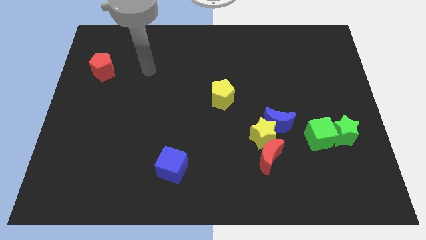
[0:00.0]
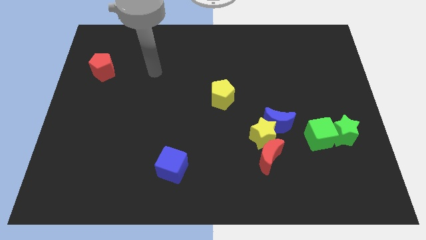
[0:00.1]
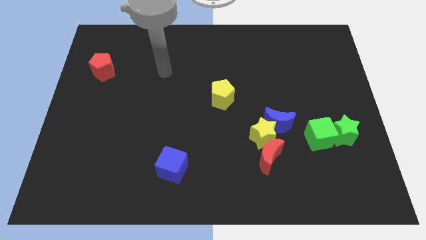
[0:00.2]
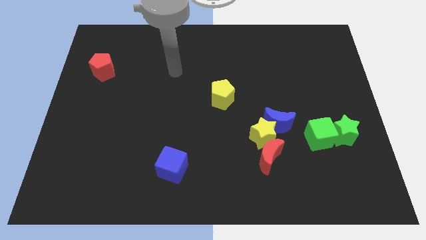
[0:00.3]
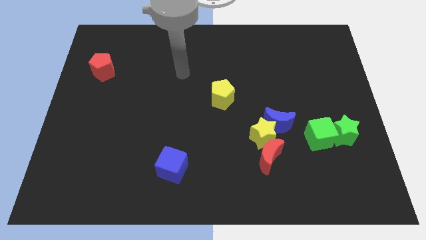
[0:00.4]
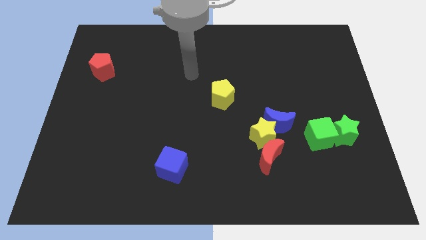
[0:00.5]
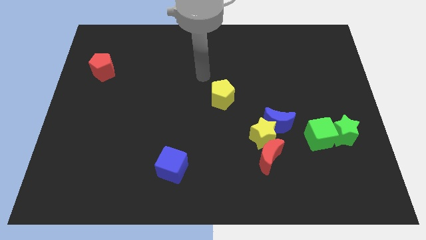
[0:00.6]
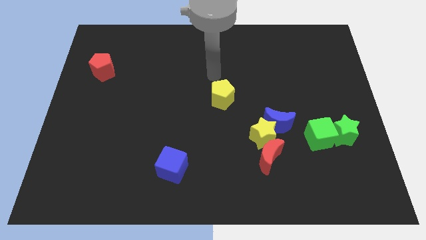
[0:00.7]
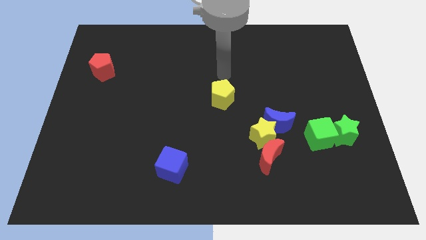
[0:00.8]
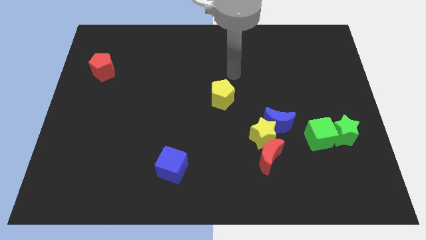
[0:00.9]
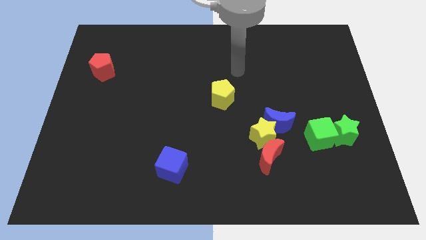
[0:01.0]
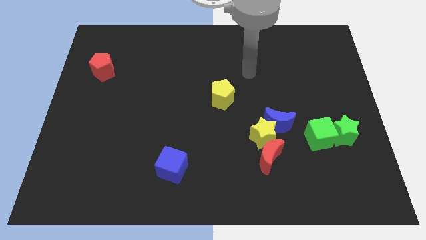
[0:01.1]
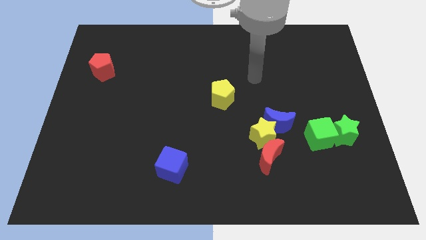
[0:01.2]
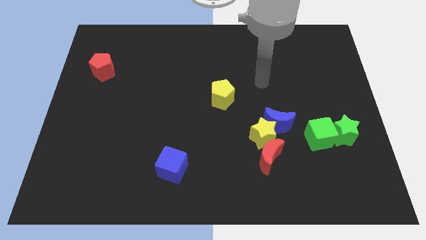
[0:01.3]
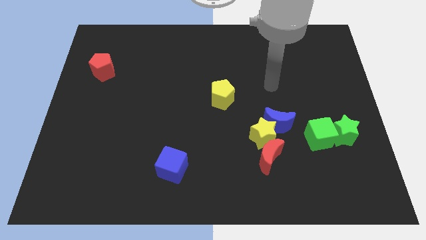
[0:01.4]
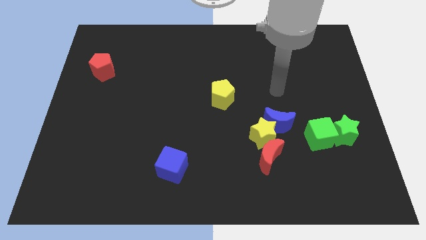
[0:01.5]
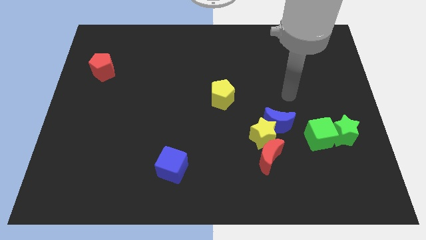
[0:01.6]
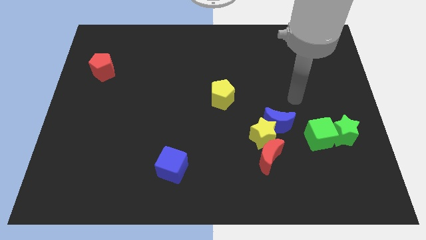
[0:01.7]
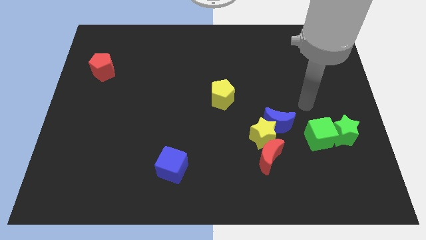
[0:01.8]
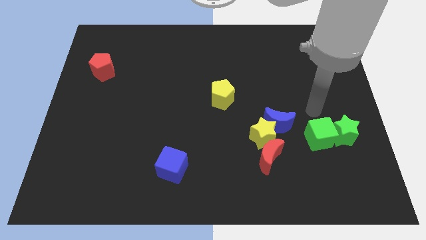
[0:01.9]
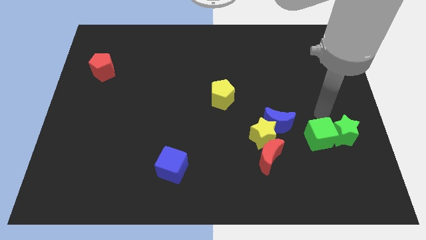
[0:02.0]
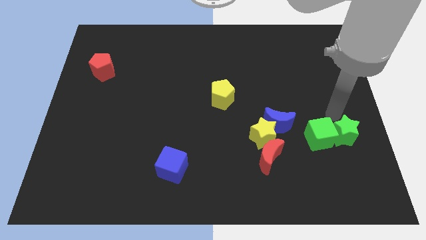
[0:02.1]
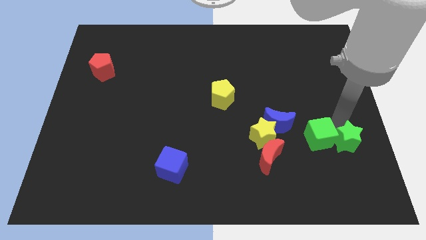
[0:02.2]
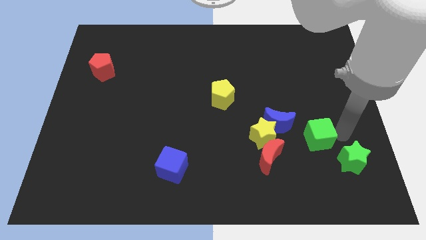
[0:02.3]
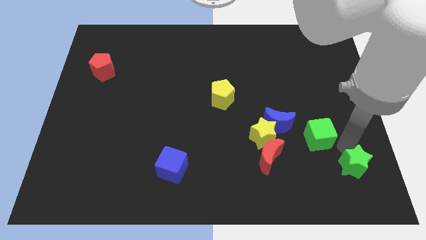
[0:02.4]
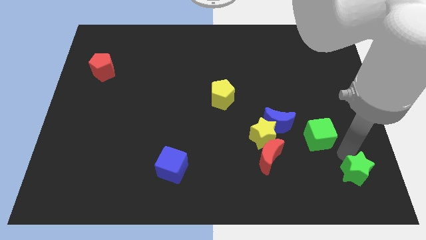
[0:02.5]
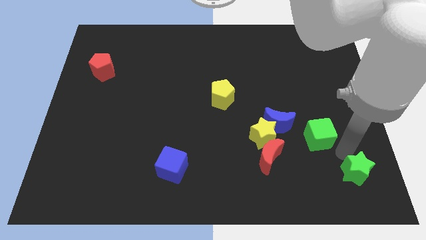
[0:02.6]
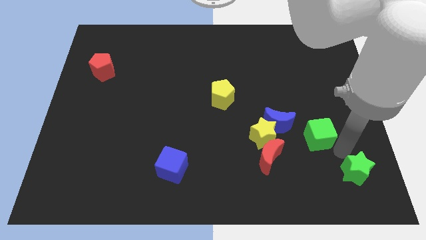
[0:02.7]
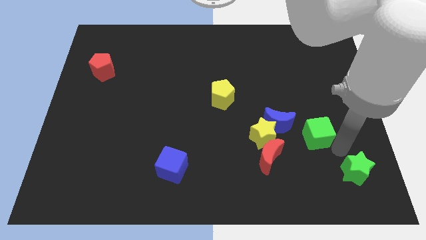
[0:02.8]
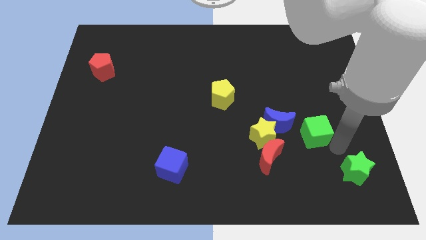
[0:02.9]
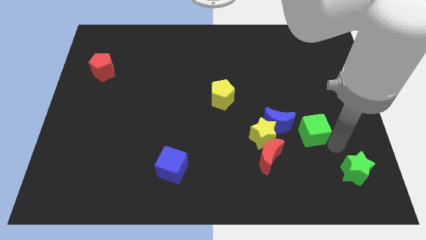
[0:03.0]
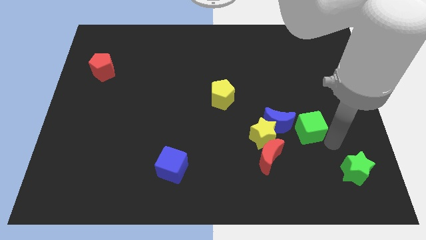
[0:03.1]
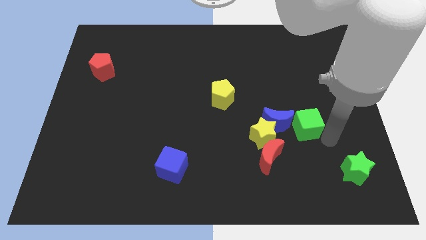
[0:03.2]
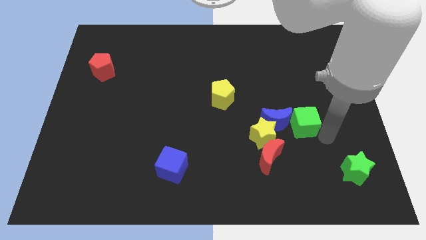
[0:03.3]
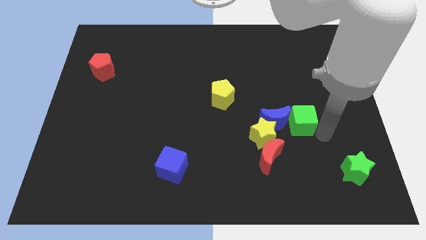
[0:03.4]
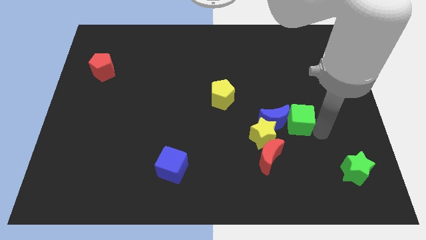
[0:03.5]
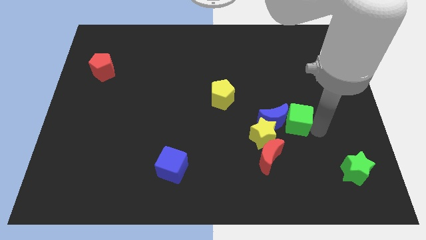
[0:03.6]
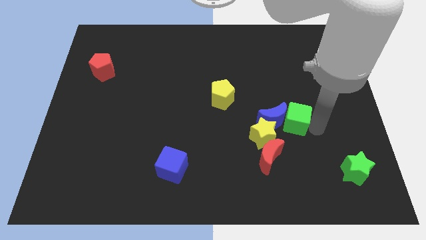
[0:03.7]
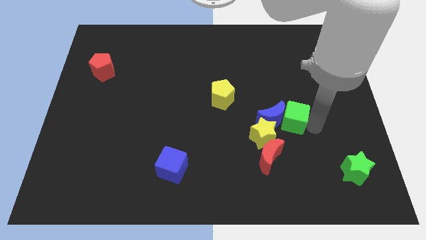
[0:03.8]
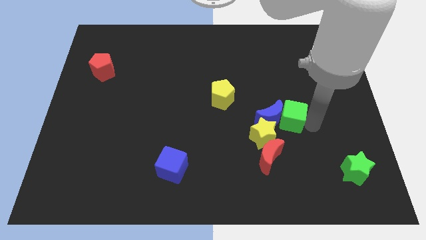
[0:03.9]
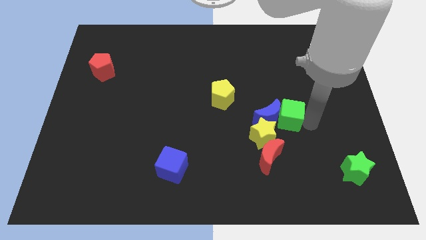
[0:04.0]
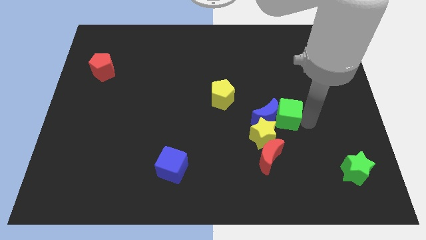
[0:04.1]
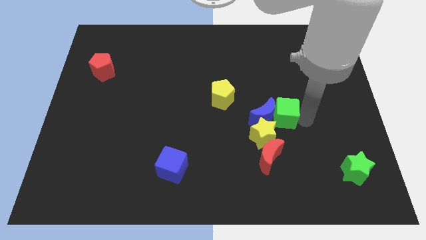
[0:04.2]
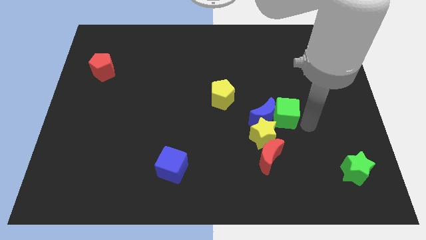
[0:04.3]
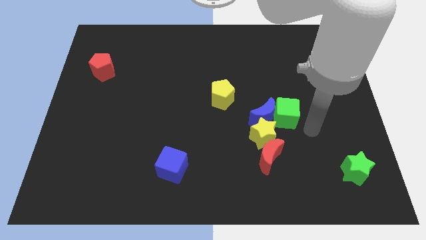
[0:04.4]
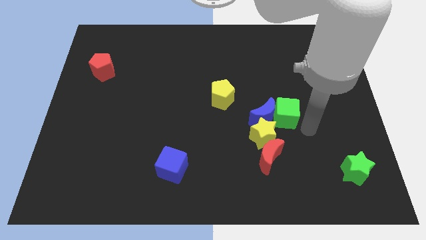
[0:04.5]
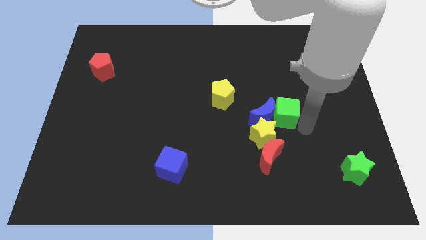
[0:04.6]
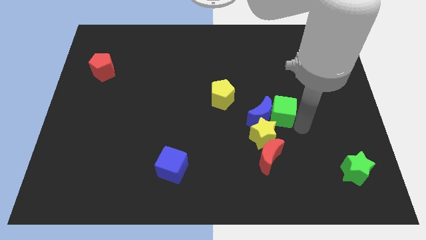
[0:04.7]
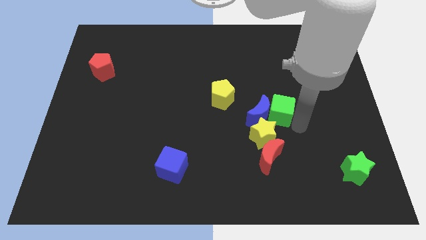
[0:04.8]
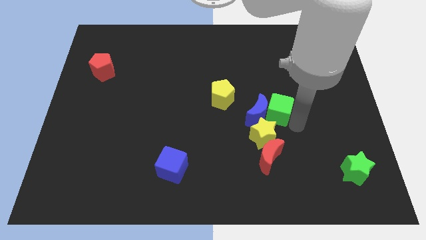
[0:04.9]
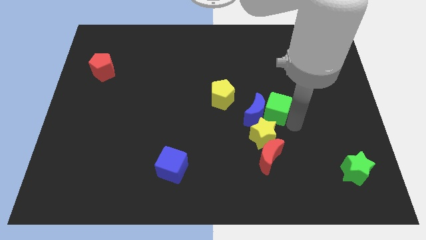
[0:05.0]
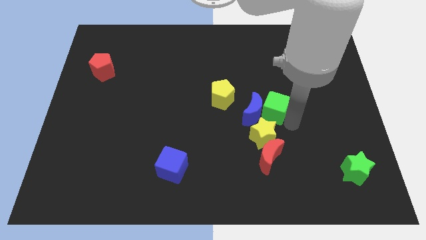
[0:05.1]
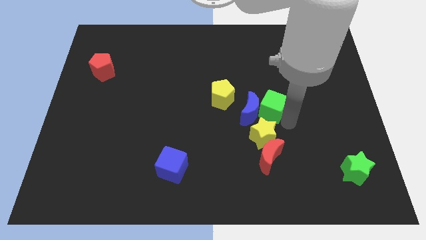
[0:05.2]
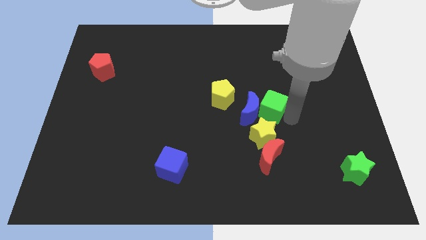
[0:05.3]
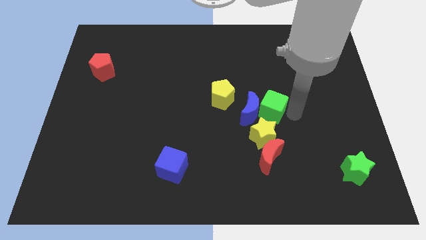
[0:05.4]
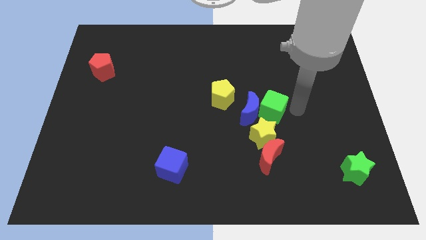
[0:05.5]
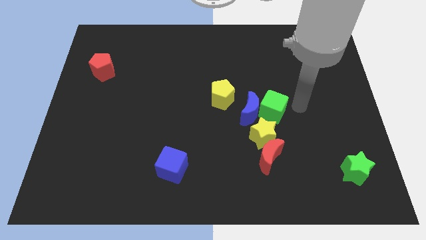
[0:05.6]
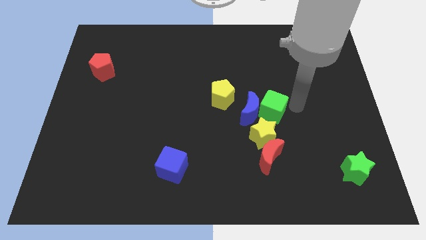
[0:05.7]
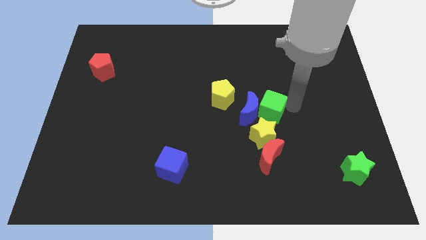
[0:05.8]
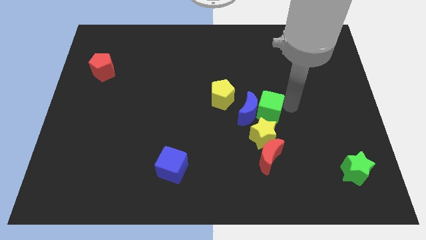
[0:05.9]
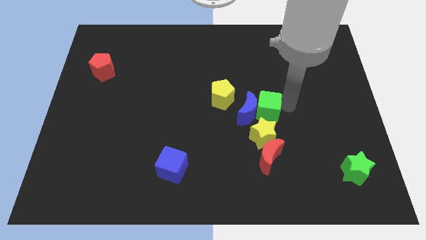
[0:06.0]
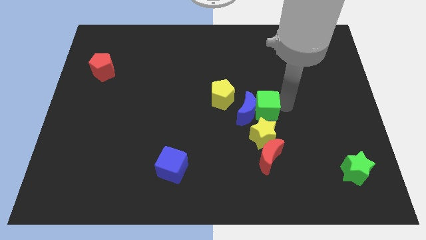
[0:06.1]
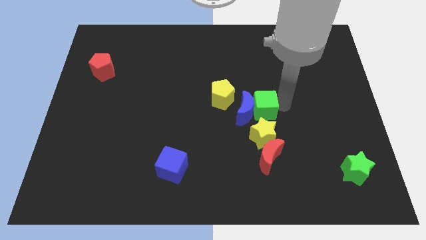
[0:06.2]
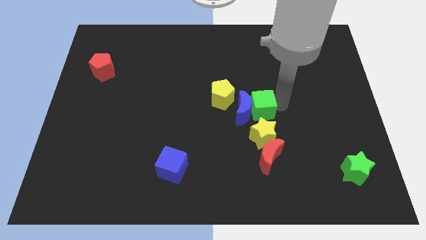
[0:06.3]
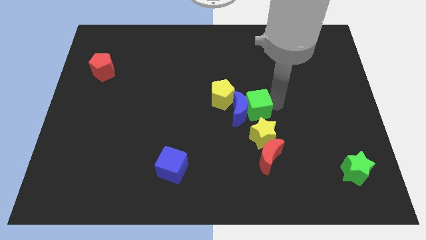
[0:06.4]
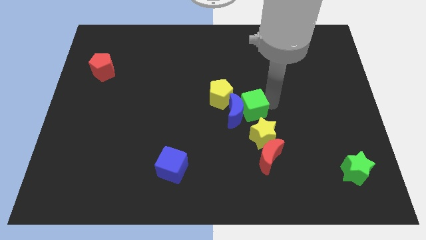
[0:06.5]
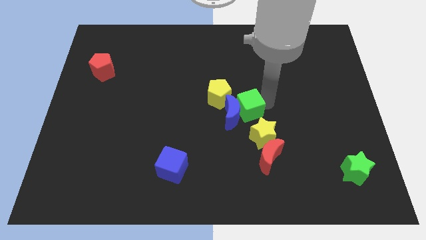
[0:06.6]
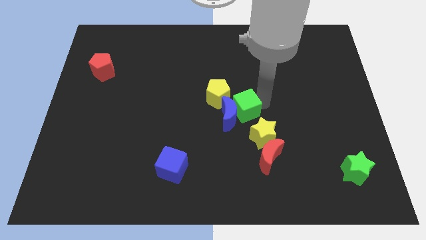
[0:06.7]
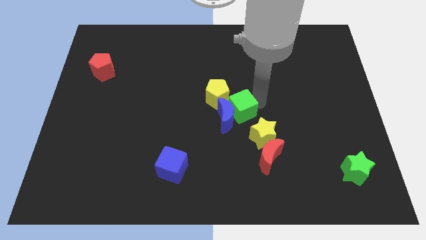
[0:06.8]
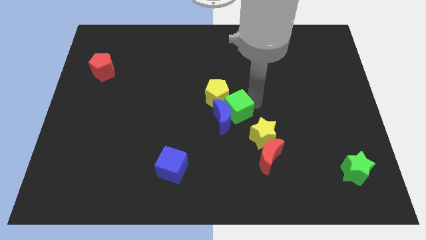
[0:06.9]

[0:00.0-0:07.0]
slide the green cube to the bottom of the yellow pentagon
